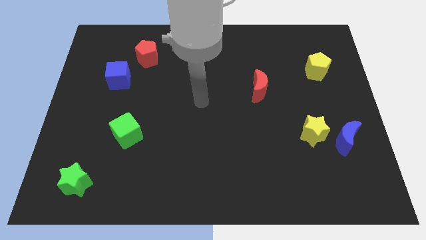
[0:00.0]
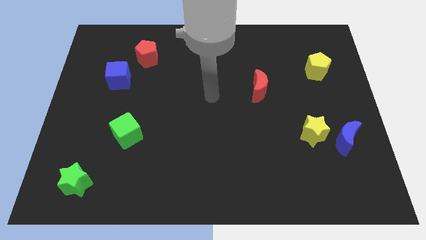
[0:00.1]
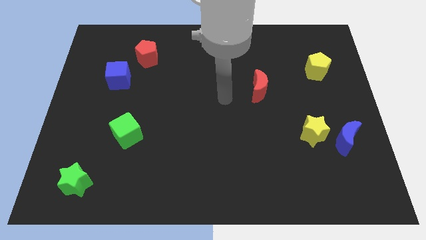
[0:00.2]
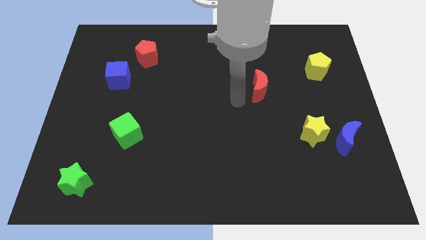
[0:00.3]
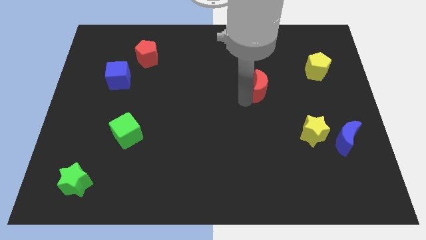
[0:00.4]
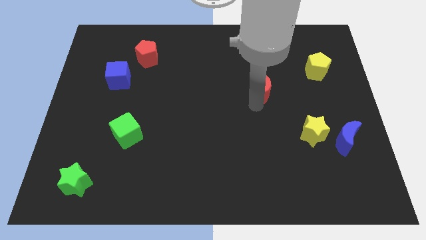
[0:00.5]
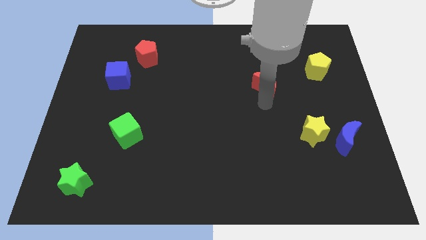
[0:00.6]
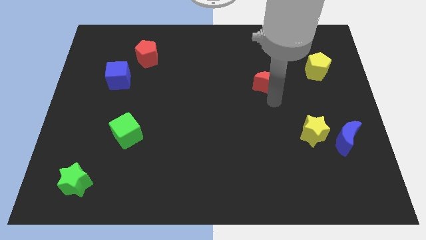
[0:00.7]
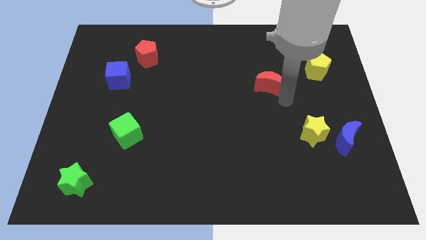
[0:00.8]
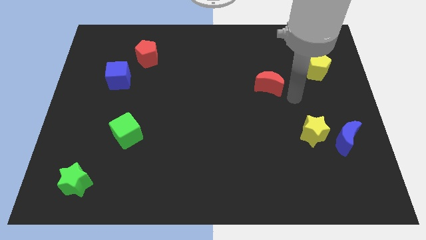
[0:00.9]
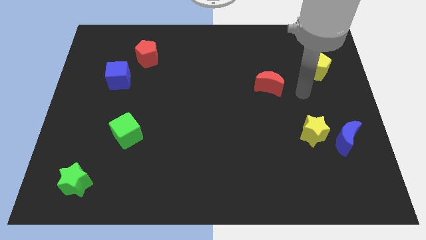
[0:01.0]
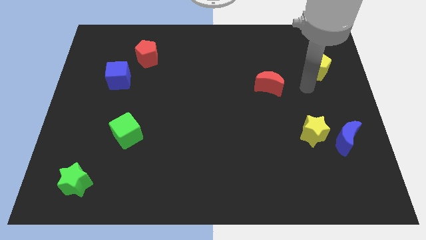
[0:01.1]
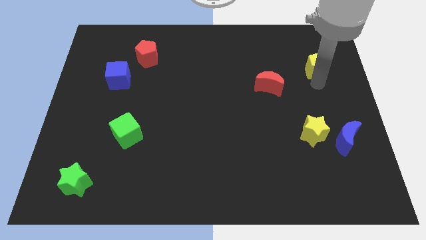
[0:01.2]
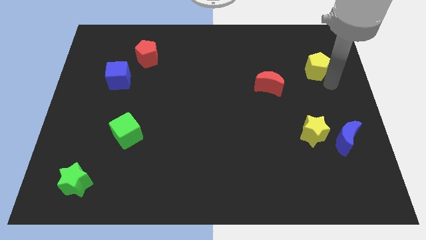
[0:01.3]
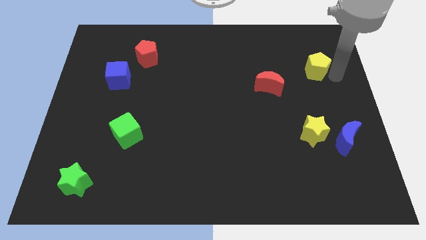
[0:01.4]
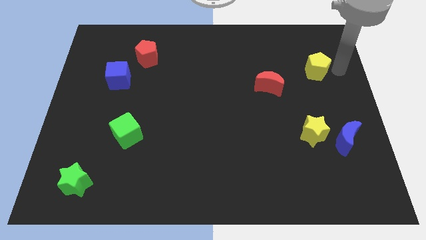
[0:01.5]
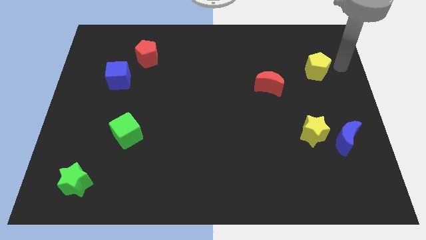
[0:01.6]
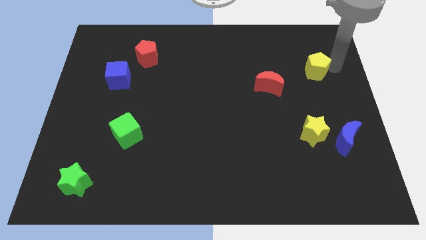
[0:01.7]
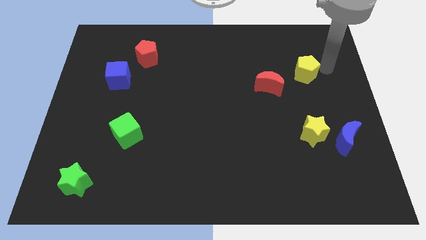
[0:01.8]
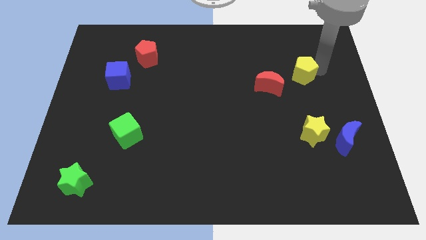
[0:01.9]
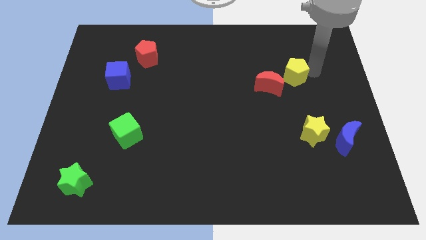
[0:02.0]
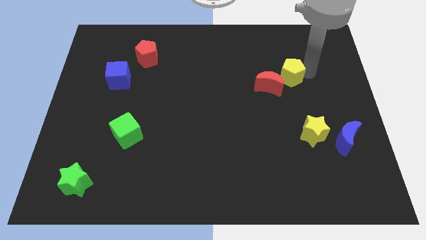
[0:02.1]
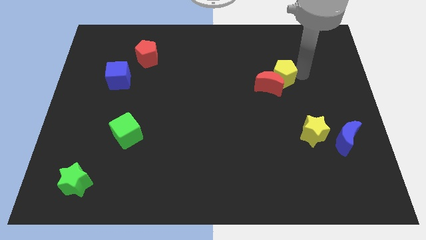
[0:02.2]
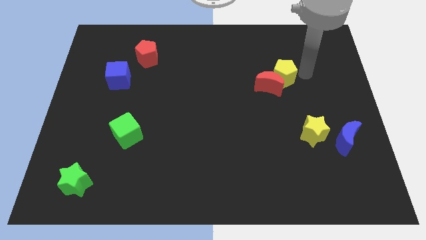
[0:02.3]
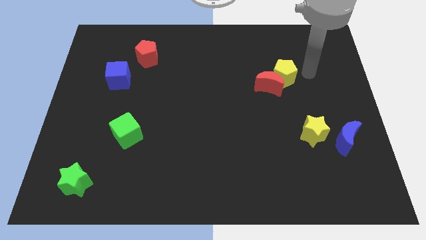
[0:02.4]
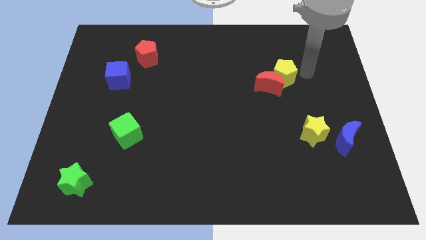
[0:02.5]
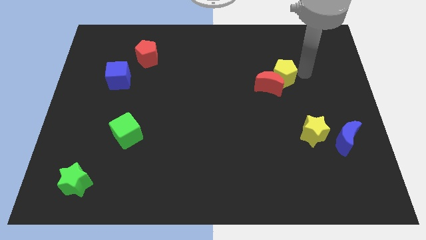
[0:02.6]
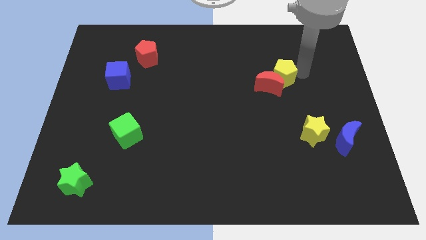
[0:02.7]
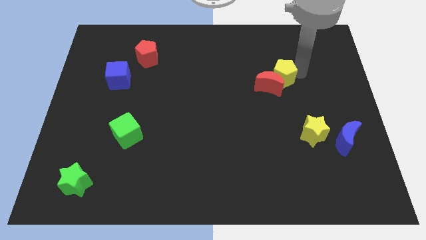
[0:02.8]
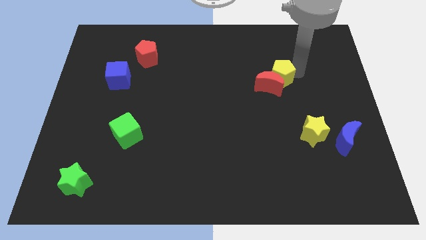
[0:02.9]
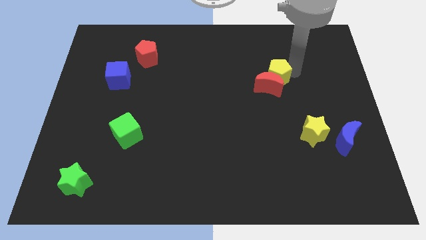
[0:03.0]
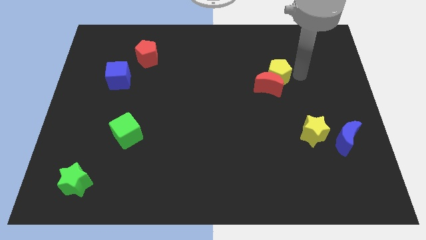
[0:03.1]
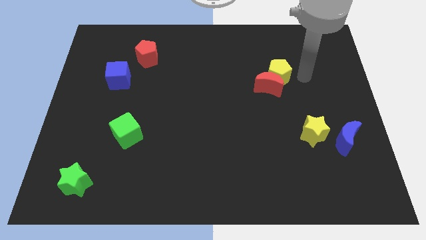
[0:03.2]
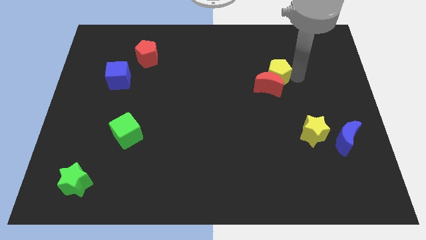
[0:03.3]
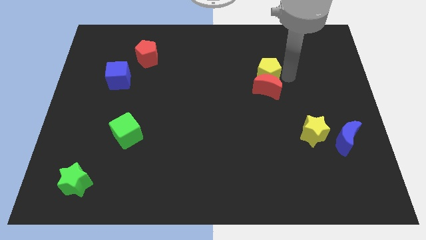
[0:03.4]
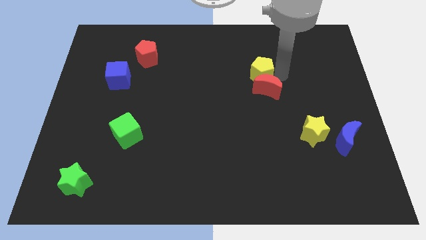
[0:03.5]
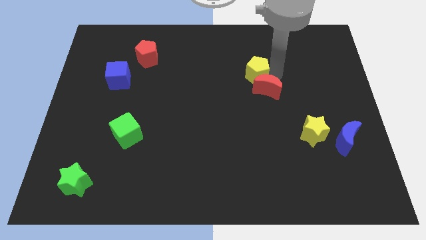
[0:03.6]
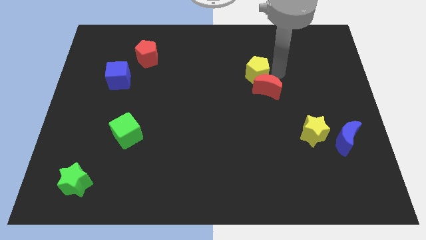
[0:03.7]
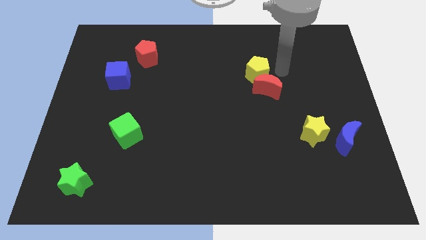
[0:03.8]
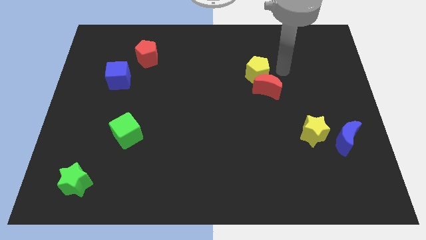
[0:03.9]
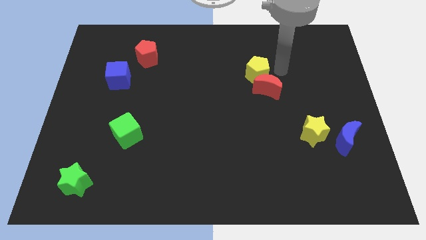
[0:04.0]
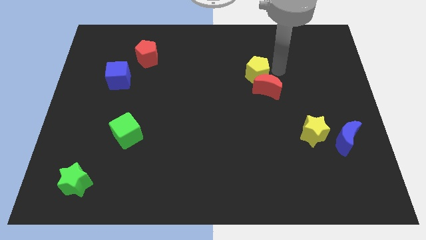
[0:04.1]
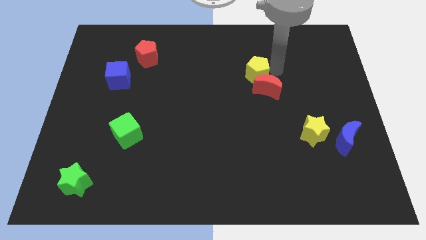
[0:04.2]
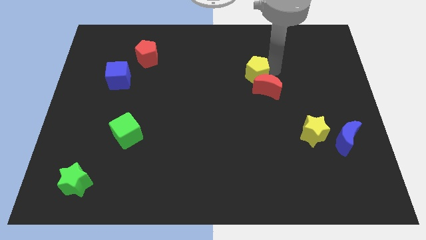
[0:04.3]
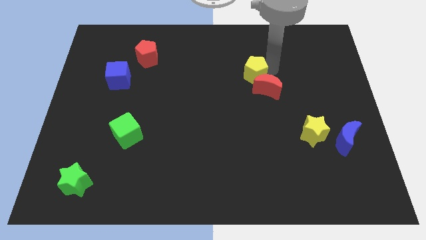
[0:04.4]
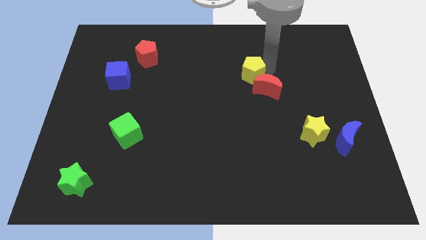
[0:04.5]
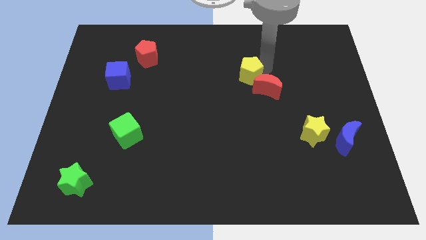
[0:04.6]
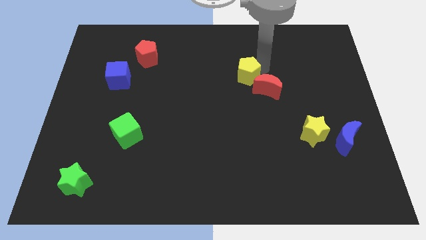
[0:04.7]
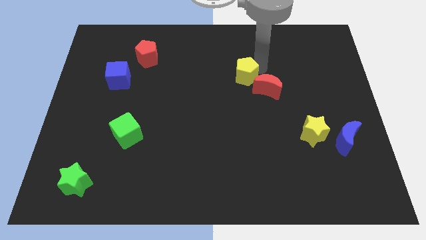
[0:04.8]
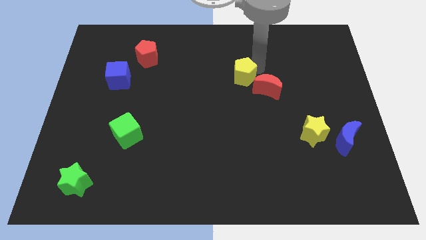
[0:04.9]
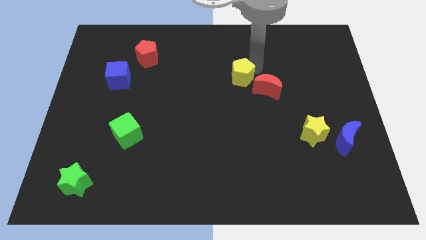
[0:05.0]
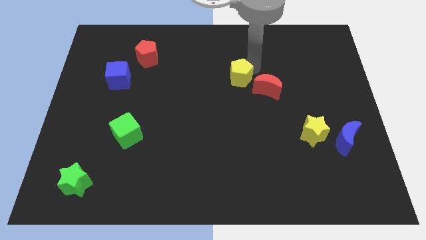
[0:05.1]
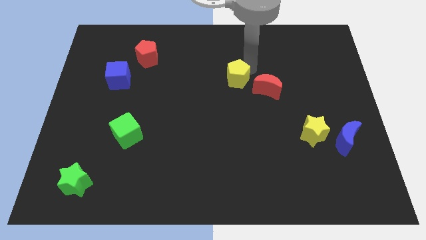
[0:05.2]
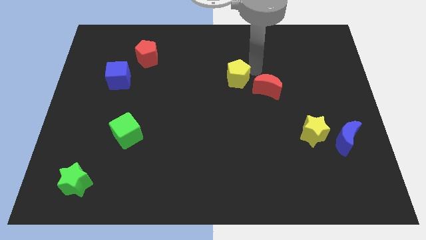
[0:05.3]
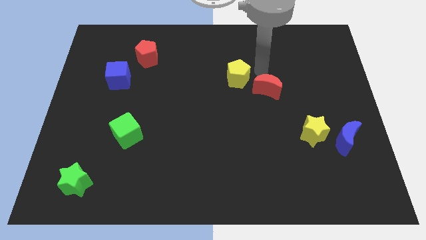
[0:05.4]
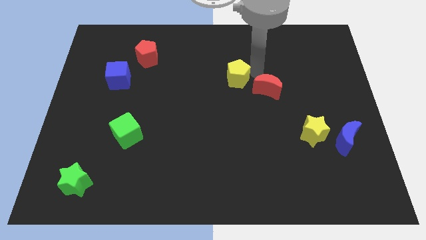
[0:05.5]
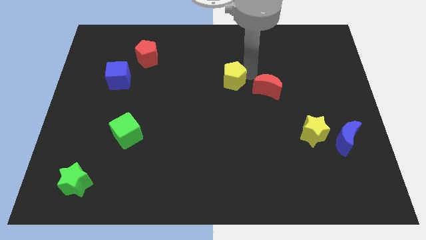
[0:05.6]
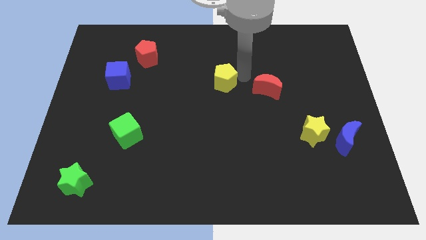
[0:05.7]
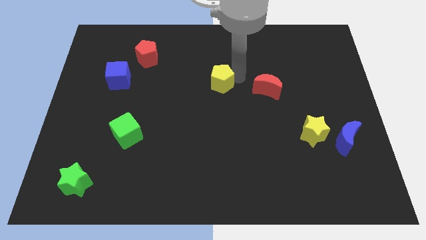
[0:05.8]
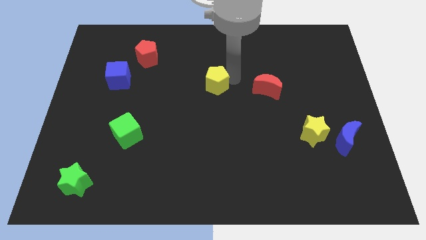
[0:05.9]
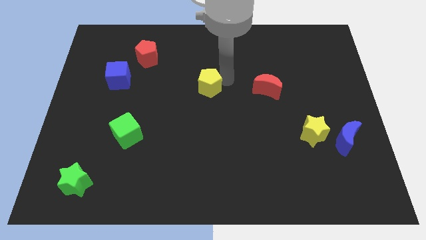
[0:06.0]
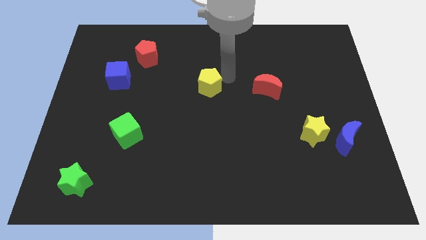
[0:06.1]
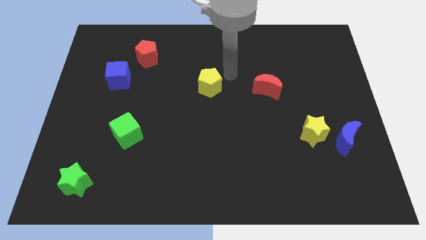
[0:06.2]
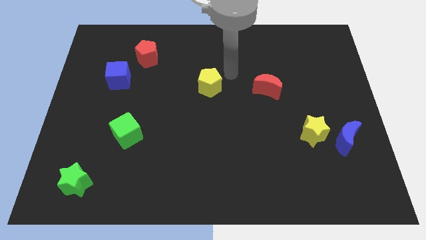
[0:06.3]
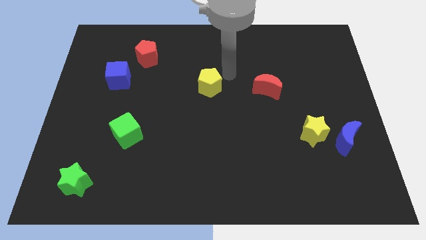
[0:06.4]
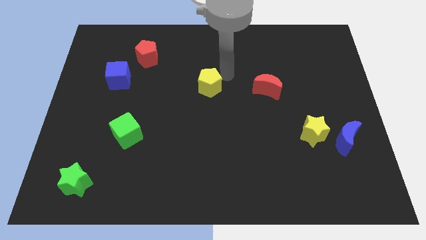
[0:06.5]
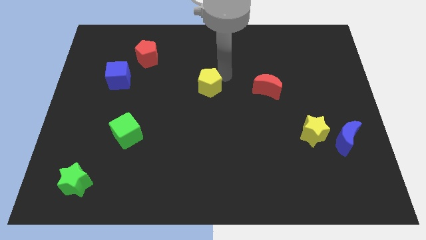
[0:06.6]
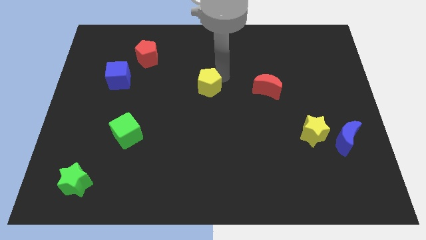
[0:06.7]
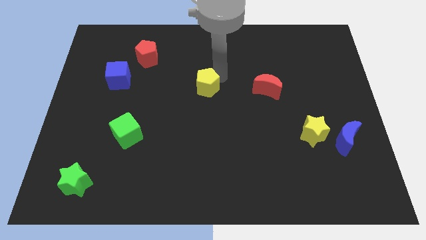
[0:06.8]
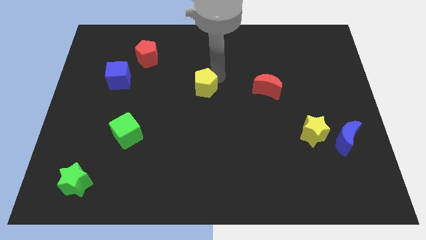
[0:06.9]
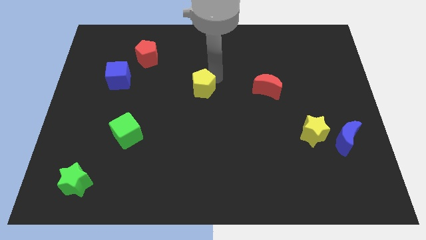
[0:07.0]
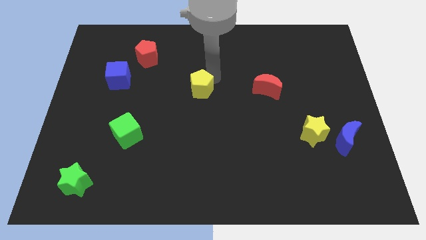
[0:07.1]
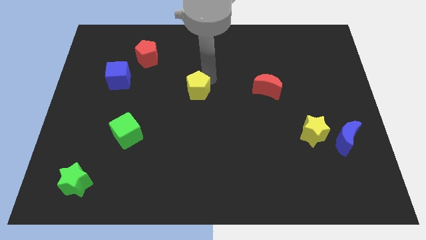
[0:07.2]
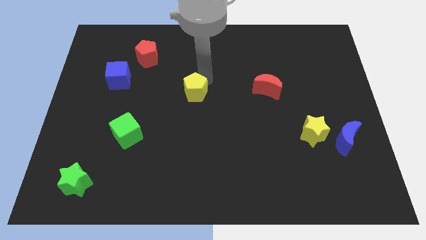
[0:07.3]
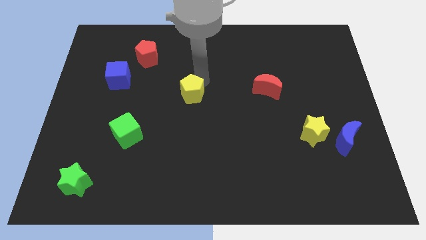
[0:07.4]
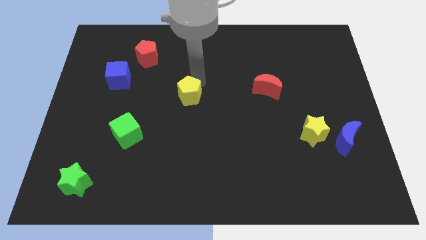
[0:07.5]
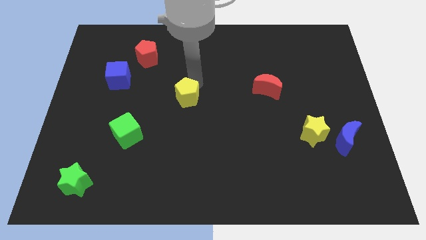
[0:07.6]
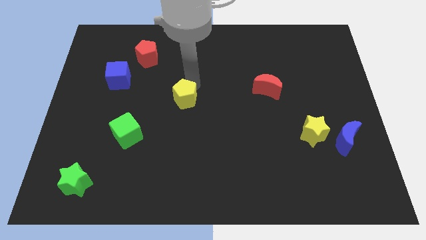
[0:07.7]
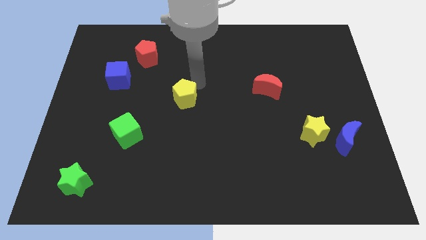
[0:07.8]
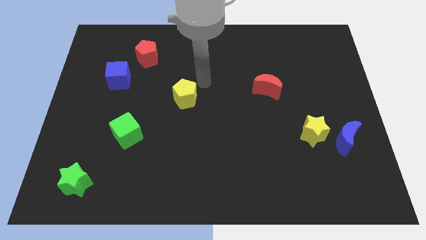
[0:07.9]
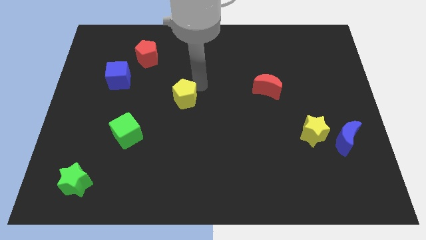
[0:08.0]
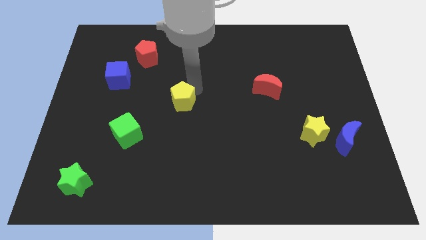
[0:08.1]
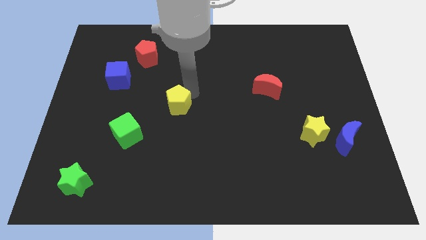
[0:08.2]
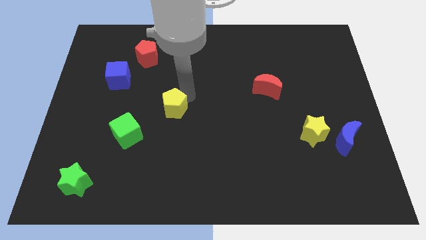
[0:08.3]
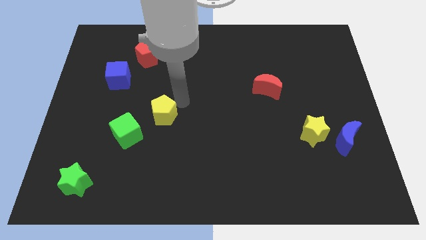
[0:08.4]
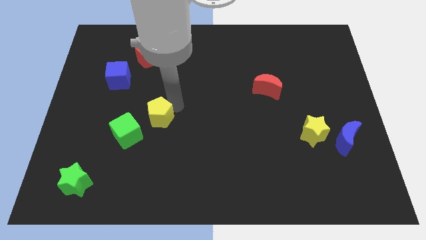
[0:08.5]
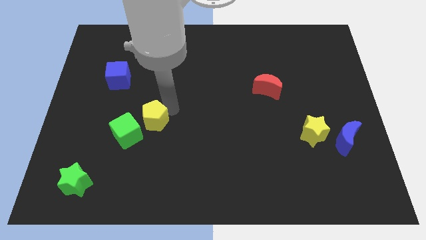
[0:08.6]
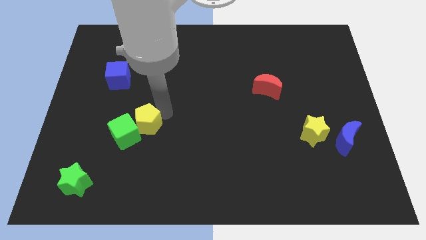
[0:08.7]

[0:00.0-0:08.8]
move the yellow pentagon close to the green cube
